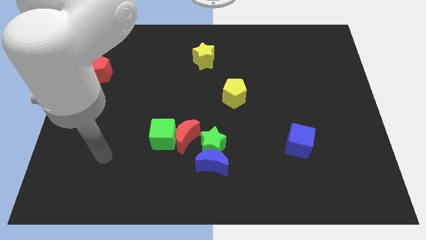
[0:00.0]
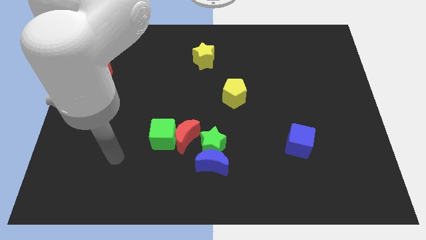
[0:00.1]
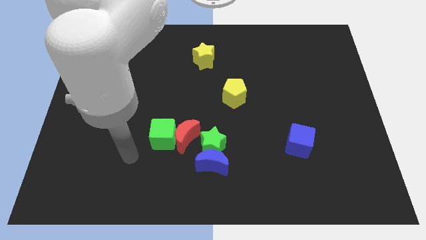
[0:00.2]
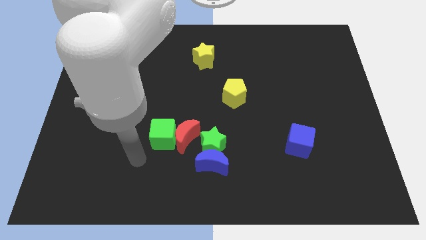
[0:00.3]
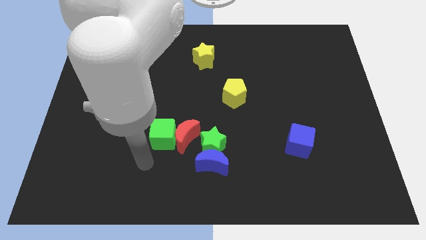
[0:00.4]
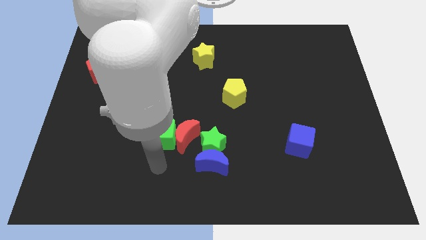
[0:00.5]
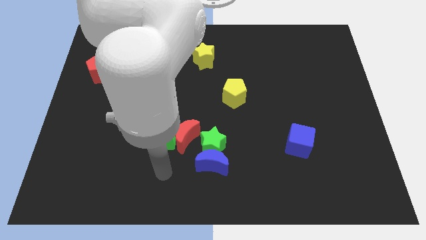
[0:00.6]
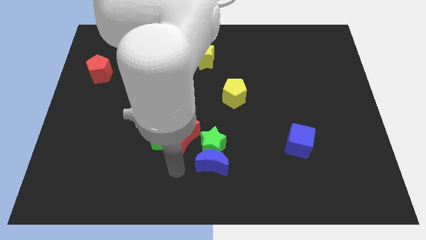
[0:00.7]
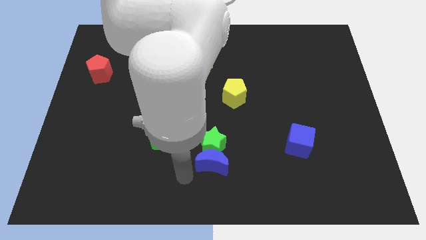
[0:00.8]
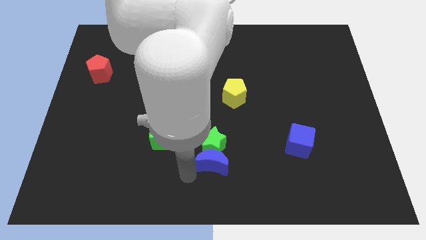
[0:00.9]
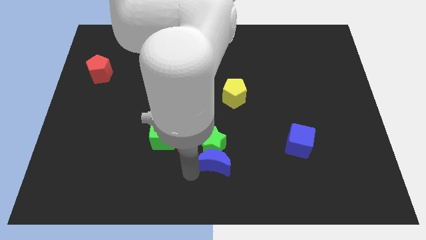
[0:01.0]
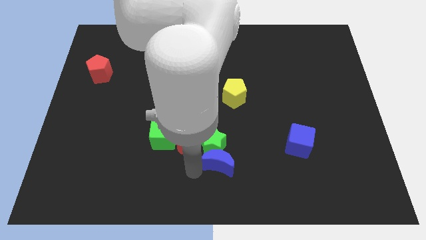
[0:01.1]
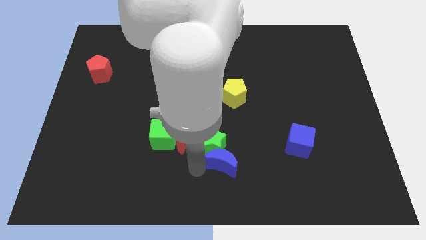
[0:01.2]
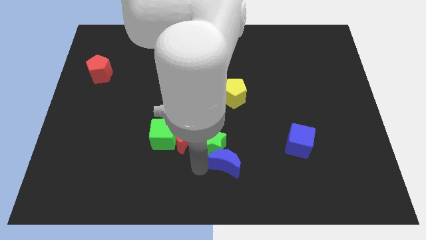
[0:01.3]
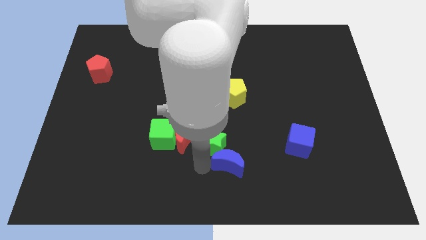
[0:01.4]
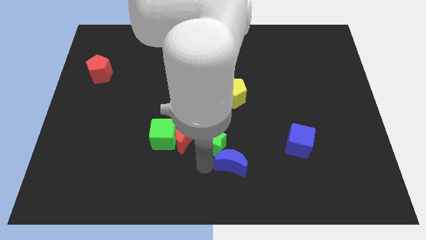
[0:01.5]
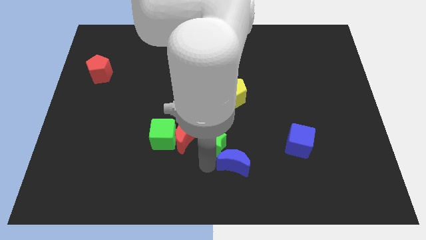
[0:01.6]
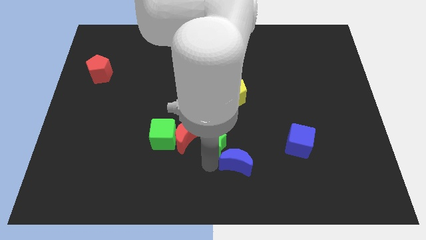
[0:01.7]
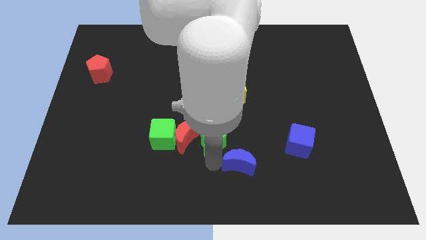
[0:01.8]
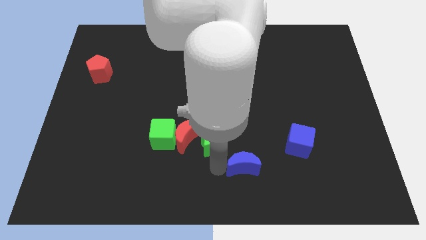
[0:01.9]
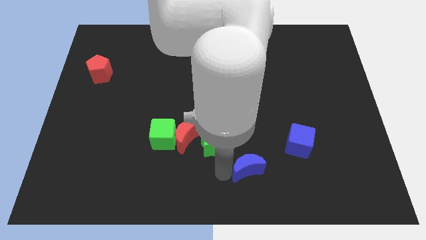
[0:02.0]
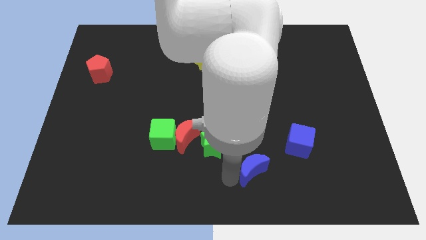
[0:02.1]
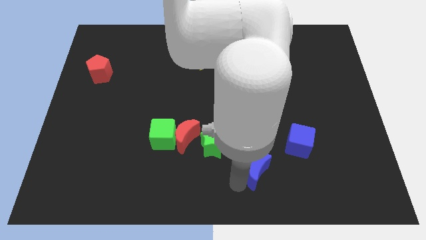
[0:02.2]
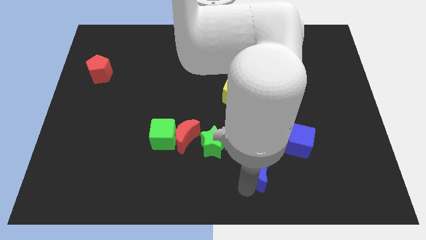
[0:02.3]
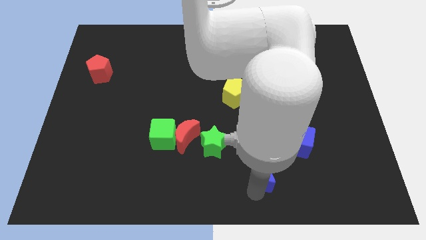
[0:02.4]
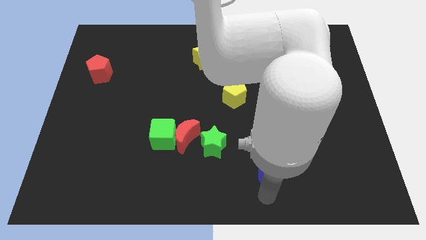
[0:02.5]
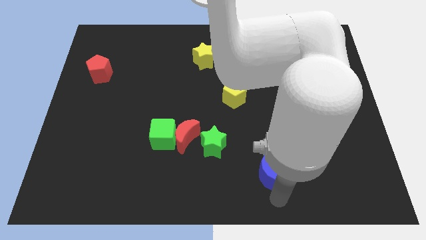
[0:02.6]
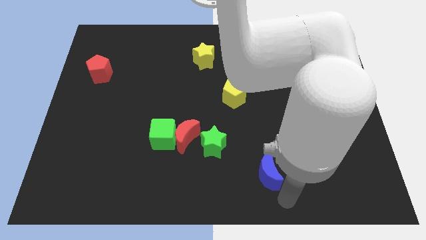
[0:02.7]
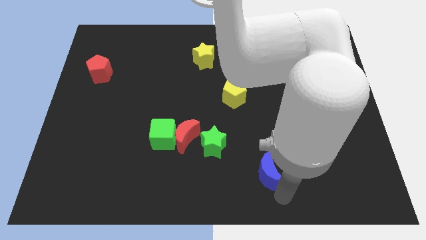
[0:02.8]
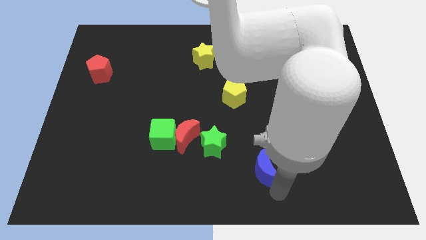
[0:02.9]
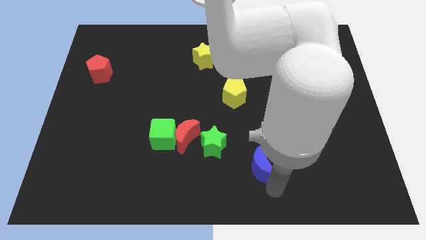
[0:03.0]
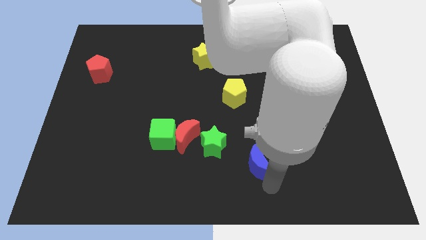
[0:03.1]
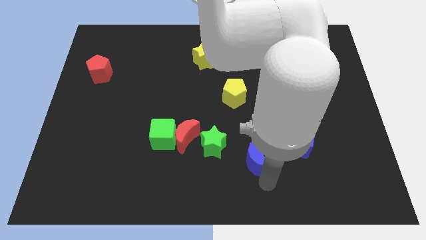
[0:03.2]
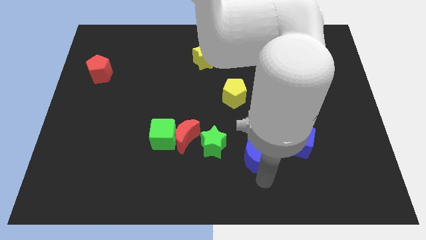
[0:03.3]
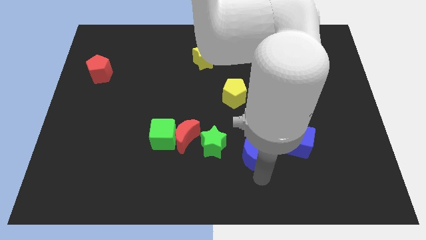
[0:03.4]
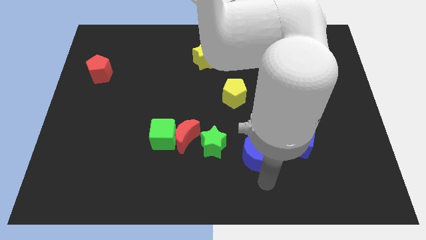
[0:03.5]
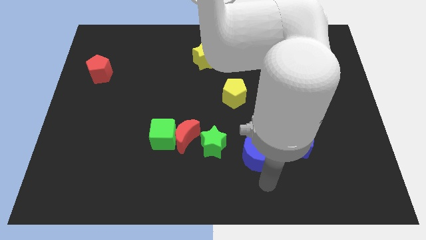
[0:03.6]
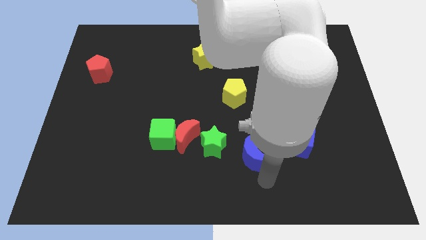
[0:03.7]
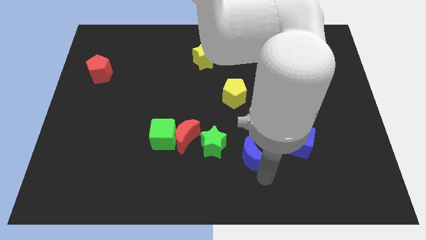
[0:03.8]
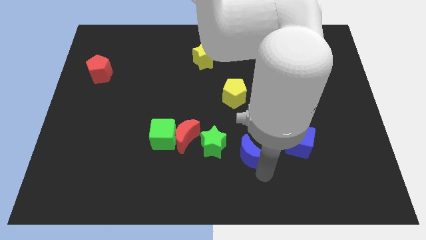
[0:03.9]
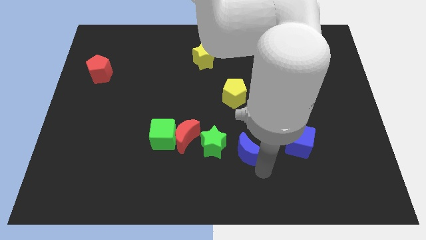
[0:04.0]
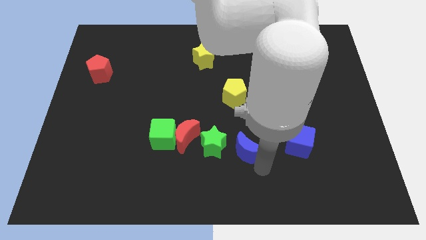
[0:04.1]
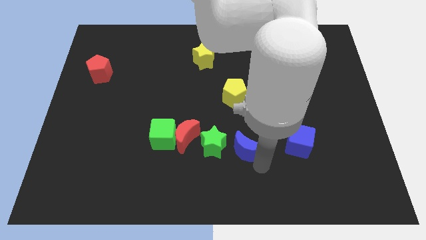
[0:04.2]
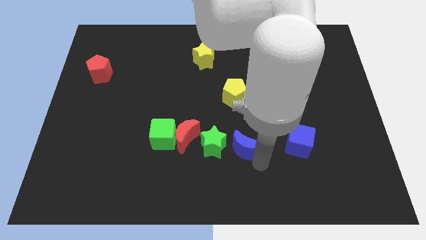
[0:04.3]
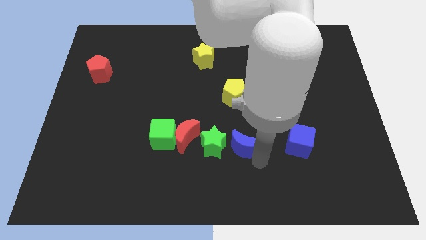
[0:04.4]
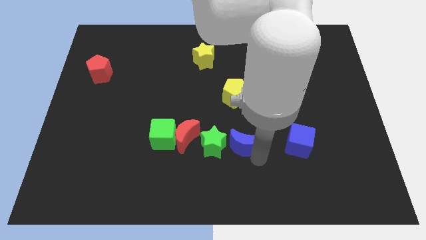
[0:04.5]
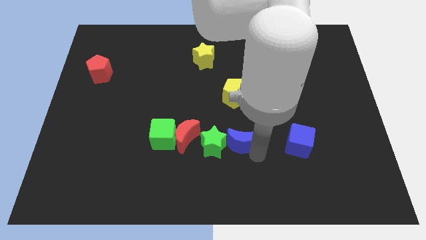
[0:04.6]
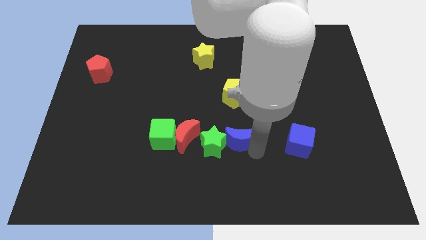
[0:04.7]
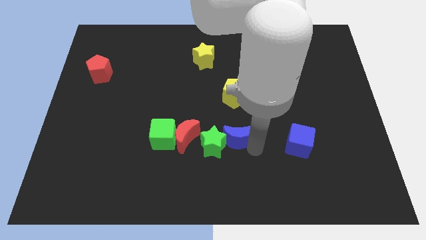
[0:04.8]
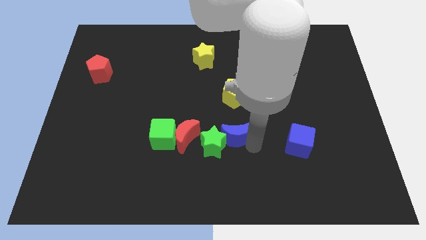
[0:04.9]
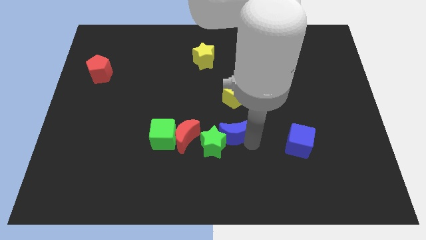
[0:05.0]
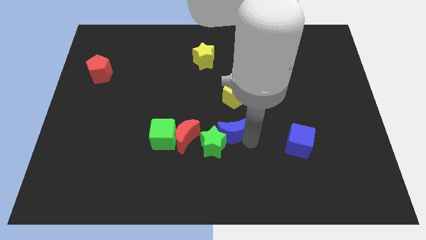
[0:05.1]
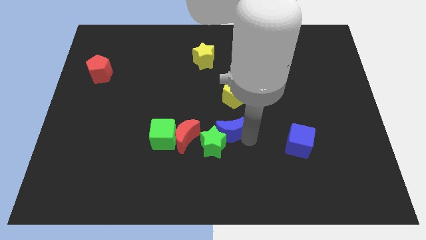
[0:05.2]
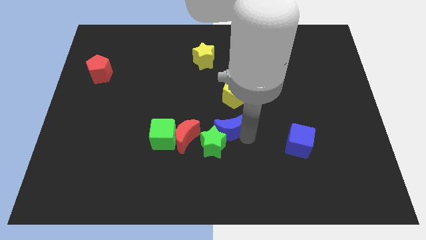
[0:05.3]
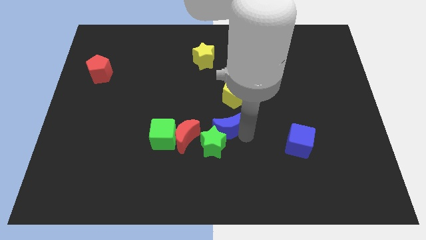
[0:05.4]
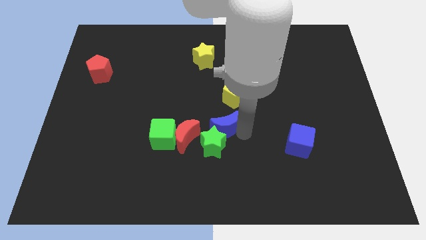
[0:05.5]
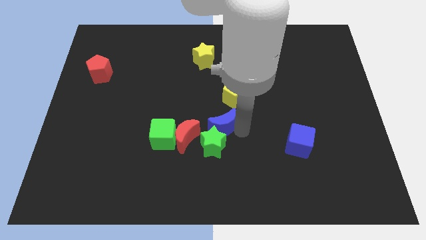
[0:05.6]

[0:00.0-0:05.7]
push the blue moon diagonally down and to the left of the yellow pentagon

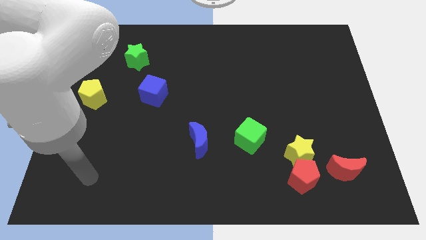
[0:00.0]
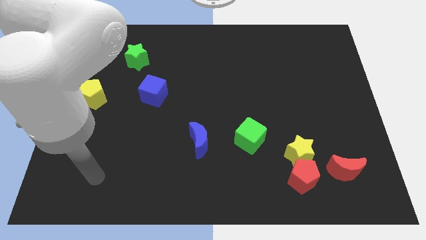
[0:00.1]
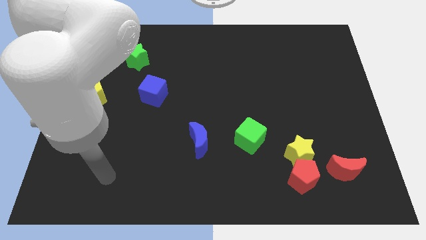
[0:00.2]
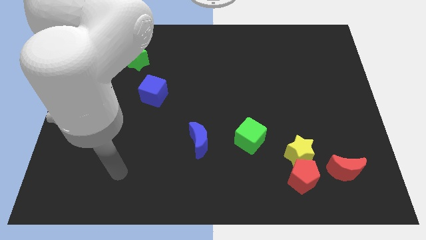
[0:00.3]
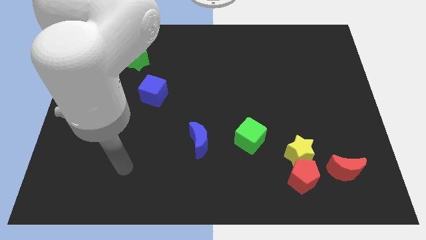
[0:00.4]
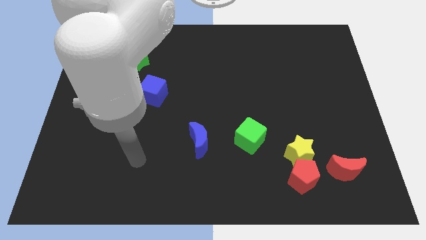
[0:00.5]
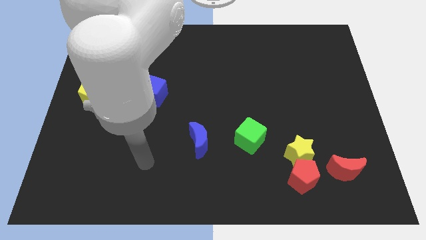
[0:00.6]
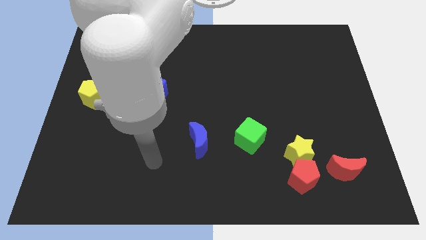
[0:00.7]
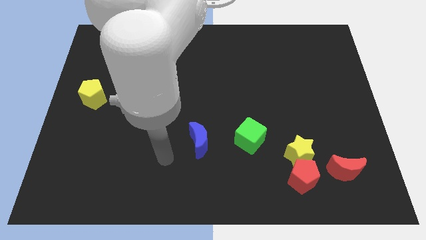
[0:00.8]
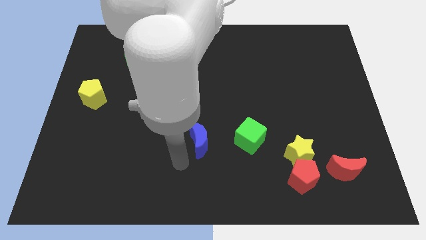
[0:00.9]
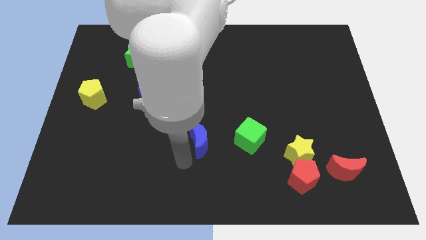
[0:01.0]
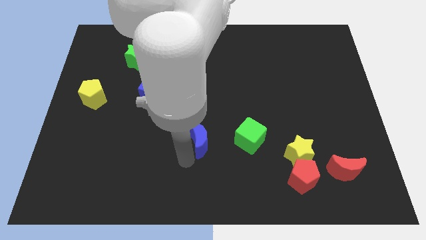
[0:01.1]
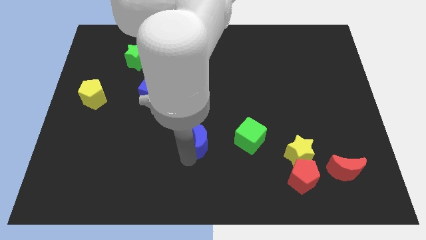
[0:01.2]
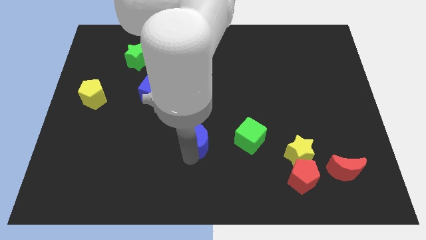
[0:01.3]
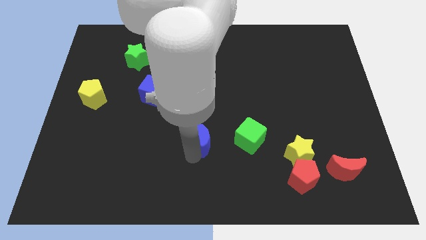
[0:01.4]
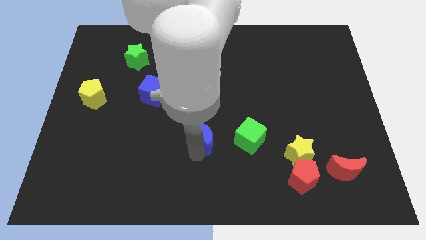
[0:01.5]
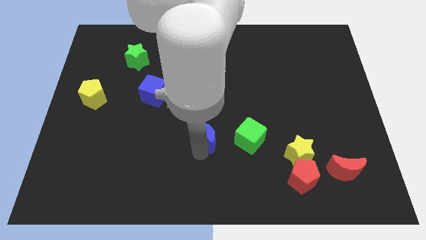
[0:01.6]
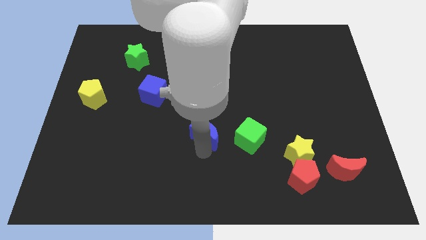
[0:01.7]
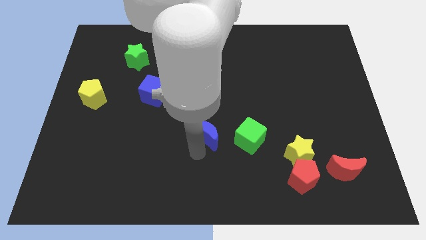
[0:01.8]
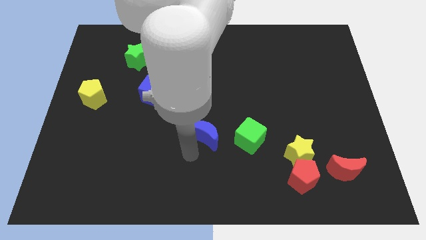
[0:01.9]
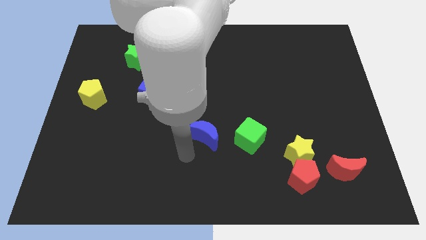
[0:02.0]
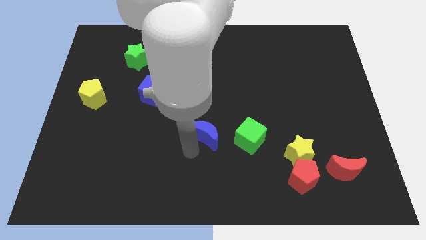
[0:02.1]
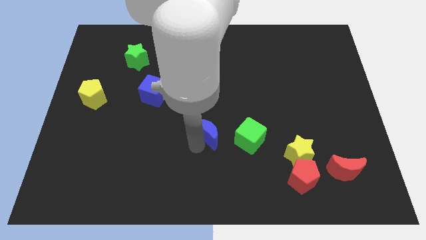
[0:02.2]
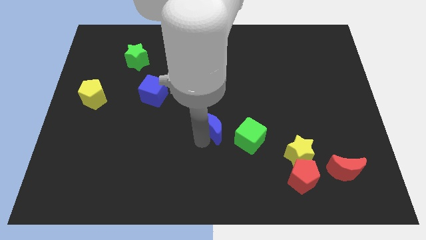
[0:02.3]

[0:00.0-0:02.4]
push the blue moon diagonally up and to the left of the green cube
